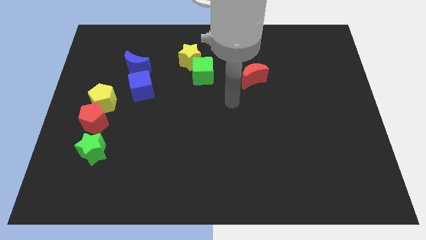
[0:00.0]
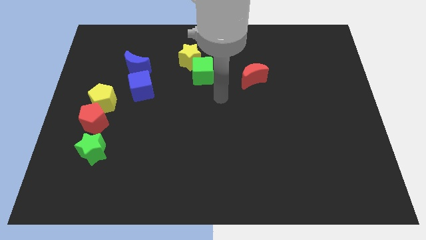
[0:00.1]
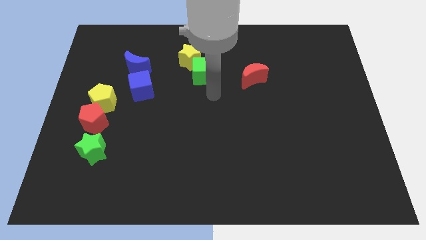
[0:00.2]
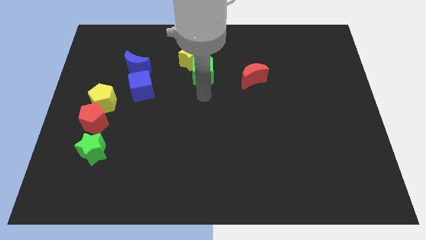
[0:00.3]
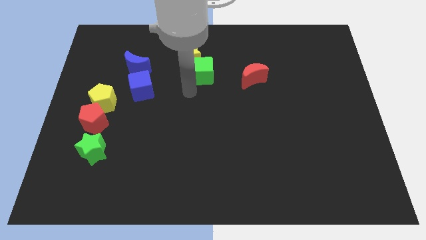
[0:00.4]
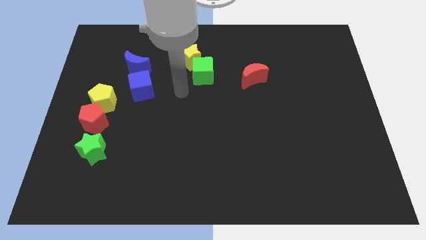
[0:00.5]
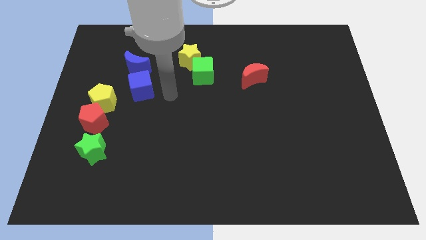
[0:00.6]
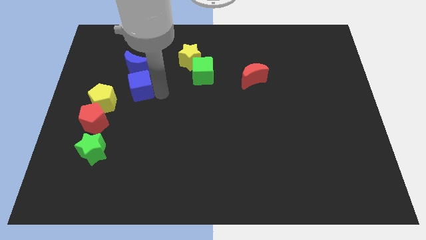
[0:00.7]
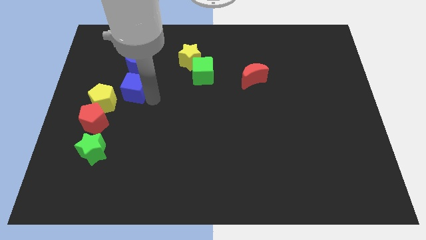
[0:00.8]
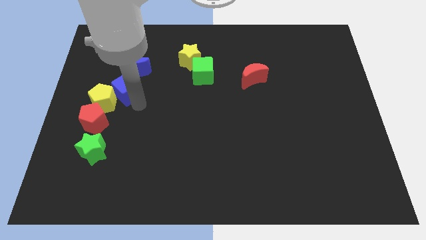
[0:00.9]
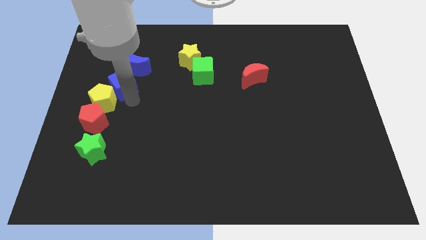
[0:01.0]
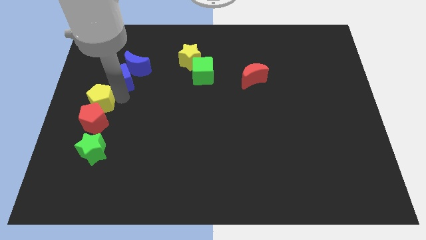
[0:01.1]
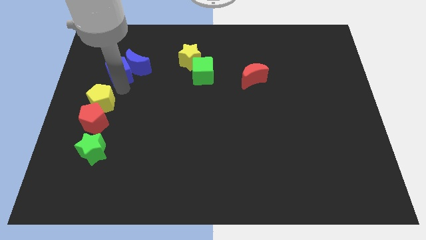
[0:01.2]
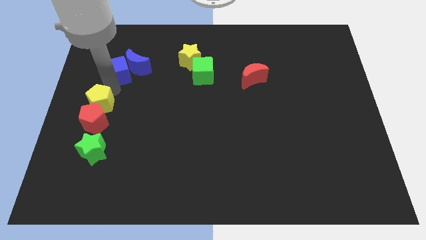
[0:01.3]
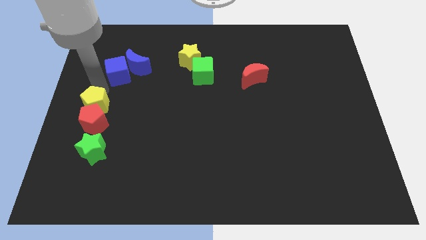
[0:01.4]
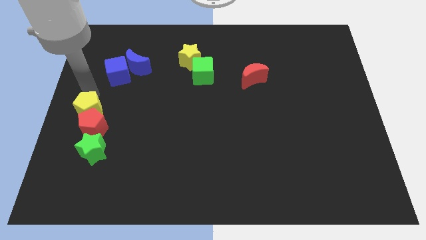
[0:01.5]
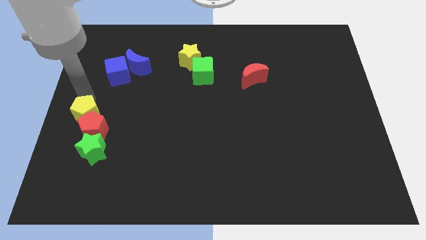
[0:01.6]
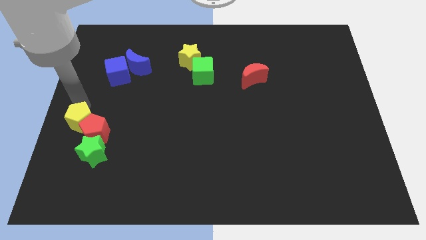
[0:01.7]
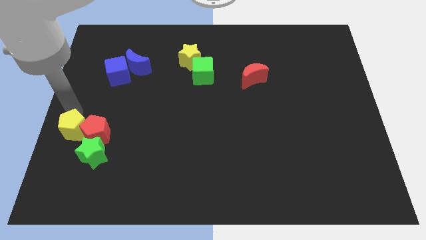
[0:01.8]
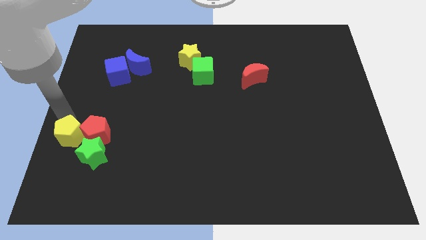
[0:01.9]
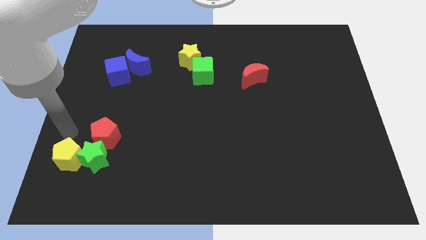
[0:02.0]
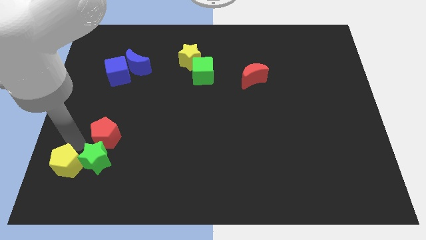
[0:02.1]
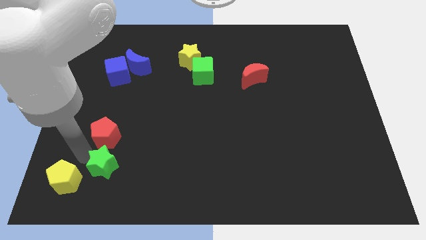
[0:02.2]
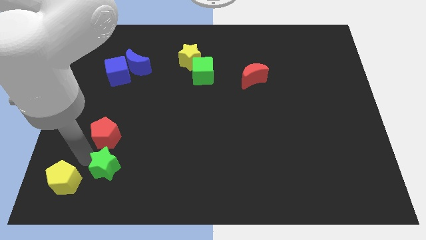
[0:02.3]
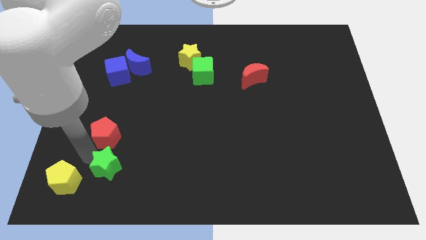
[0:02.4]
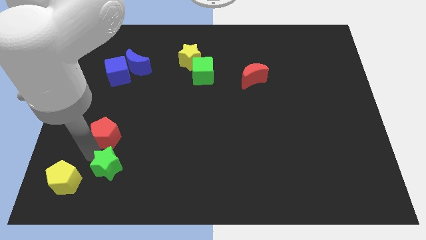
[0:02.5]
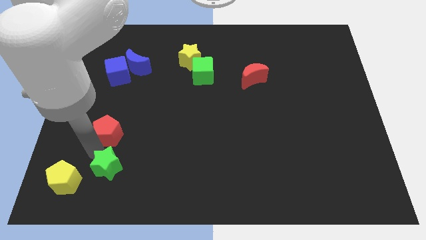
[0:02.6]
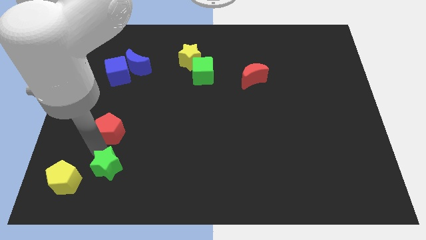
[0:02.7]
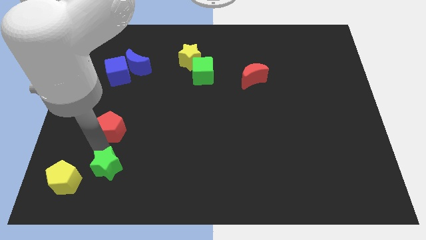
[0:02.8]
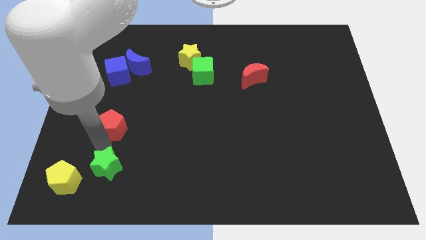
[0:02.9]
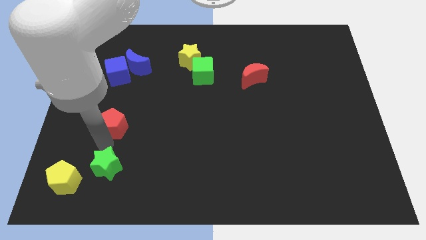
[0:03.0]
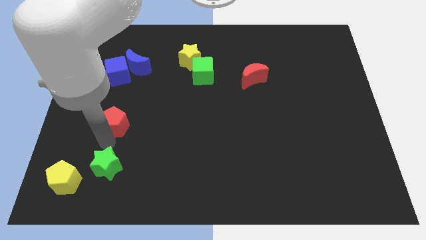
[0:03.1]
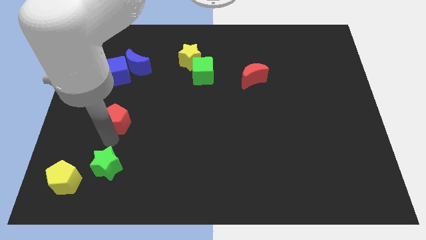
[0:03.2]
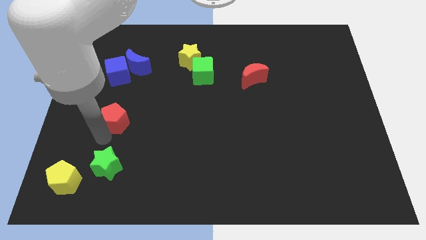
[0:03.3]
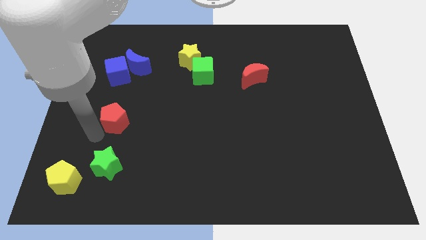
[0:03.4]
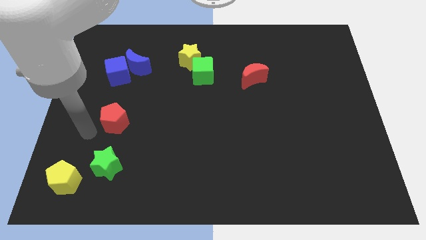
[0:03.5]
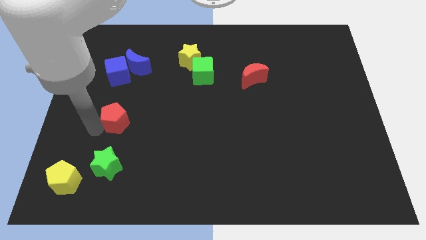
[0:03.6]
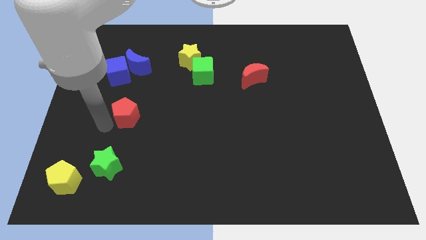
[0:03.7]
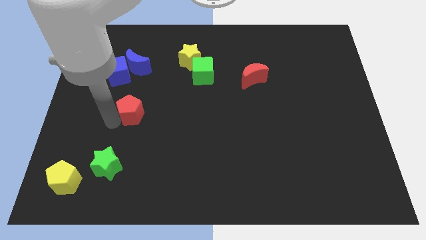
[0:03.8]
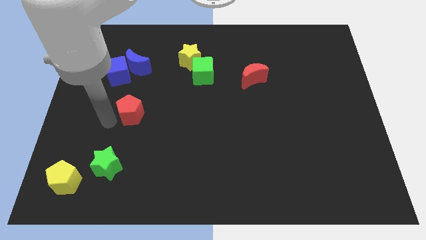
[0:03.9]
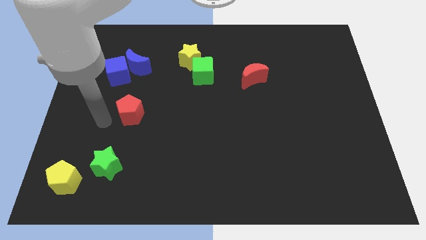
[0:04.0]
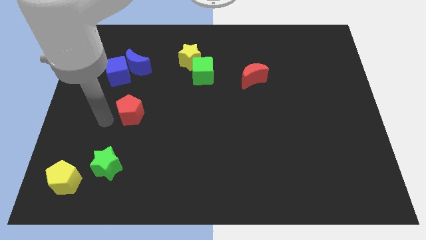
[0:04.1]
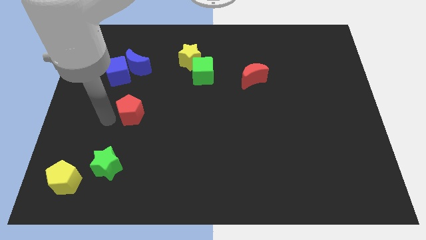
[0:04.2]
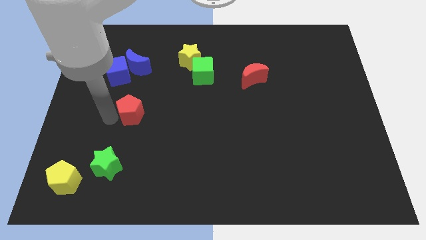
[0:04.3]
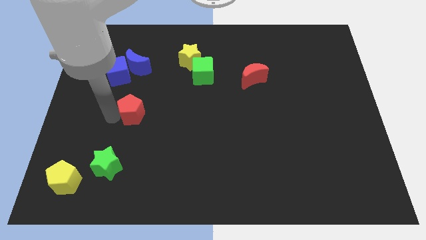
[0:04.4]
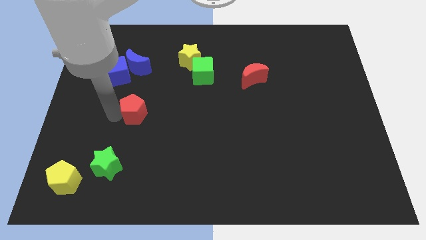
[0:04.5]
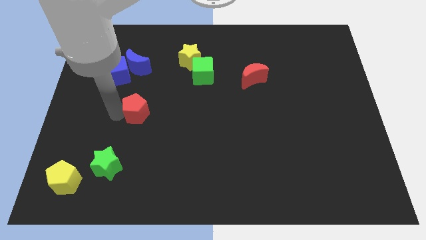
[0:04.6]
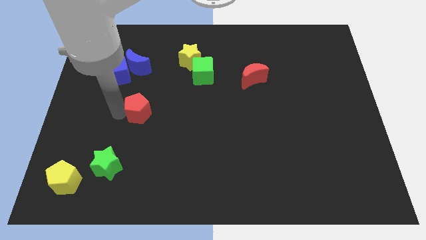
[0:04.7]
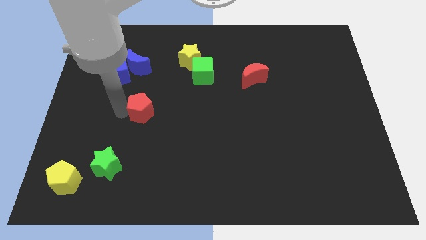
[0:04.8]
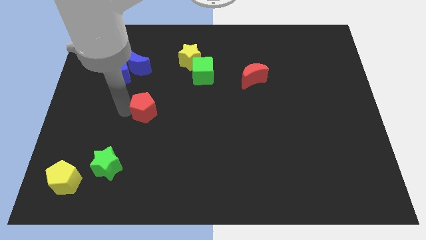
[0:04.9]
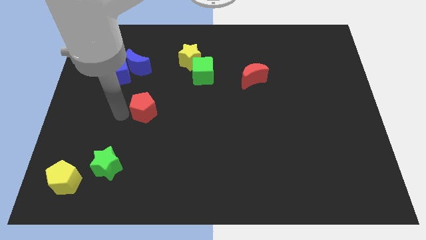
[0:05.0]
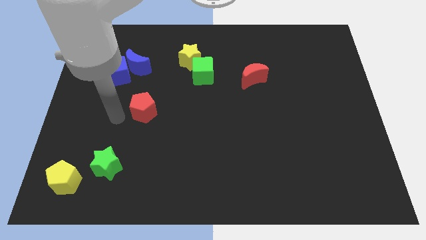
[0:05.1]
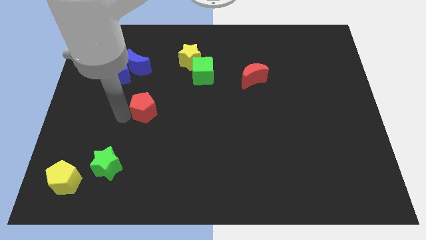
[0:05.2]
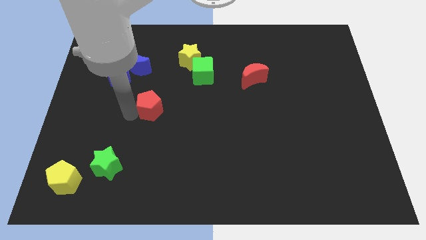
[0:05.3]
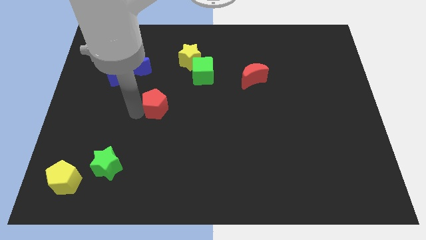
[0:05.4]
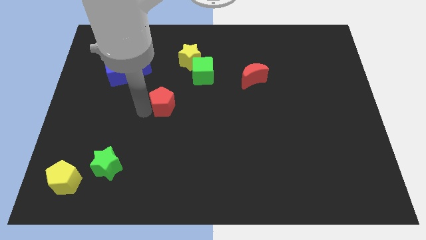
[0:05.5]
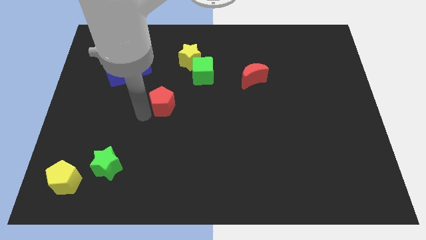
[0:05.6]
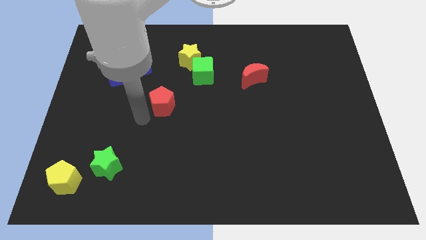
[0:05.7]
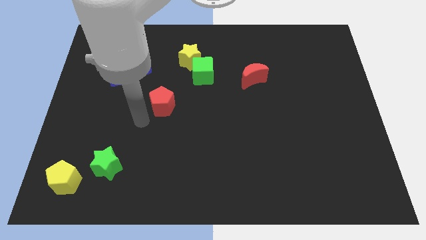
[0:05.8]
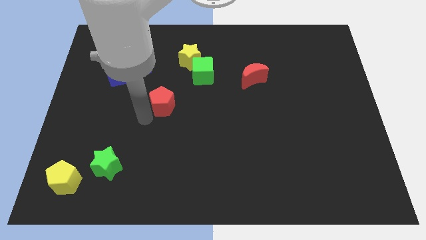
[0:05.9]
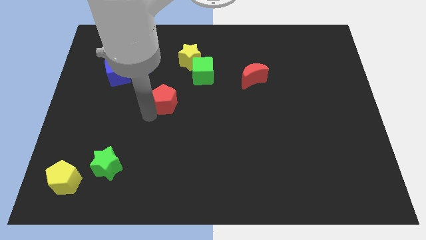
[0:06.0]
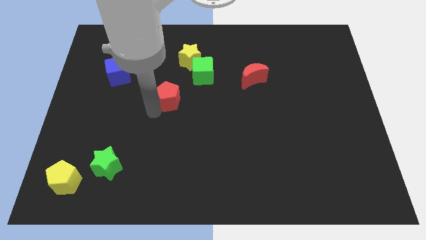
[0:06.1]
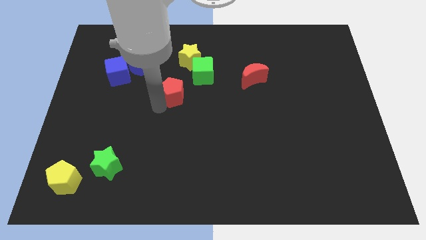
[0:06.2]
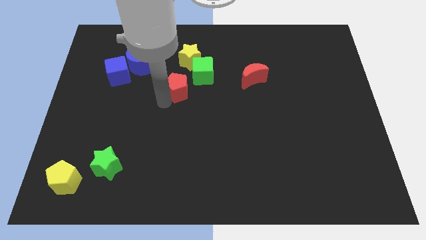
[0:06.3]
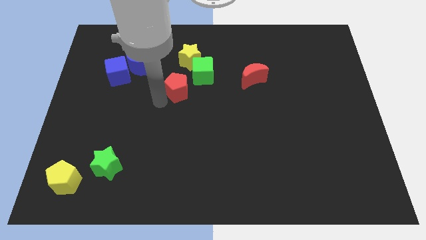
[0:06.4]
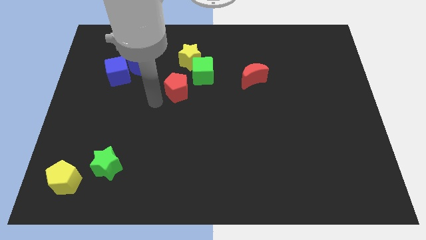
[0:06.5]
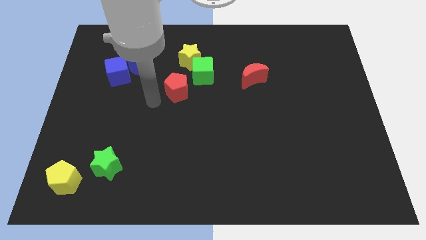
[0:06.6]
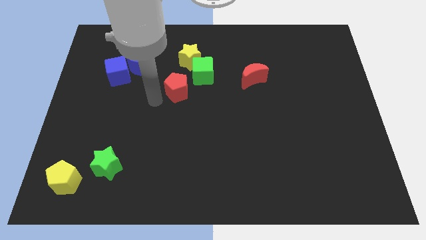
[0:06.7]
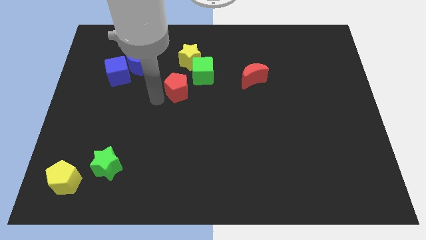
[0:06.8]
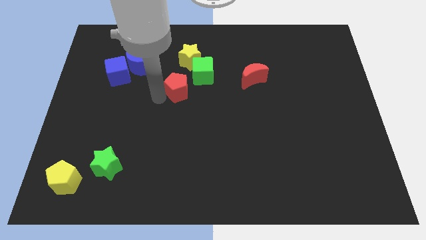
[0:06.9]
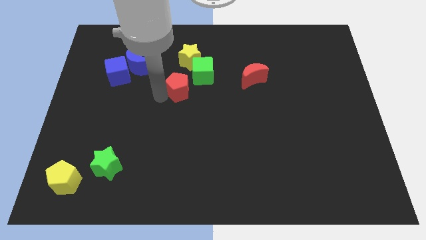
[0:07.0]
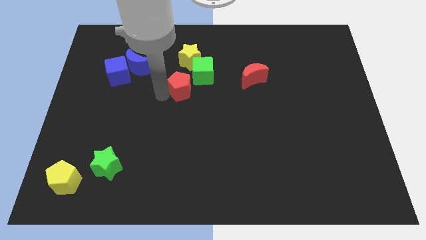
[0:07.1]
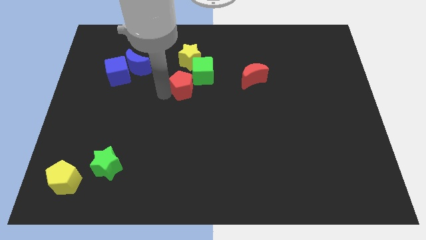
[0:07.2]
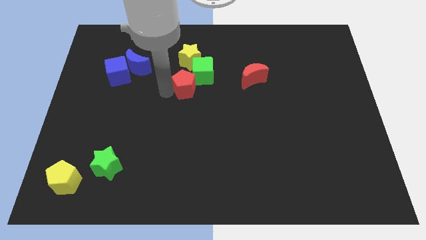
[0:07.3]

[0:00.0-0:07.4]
move the red pentagon next to the green cube
